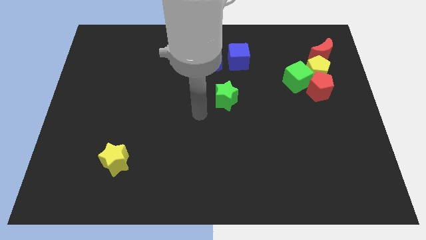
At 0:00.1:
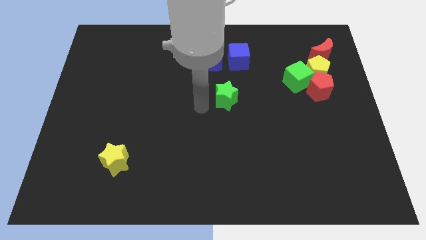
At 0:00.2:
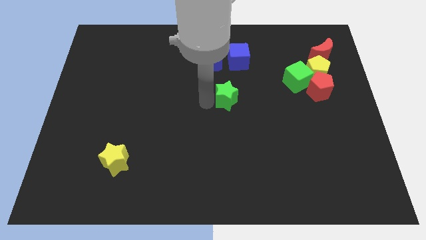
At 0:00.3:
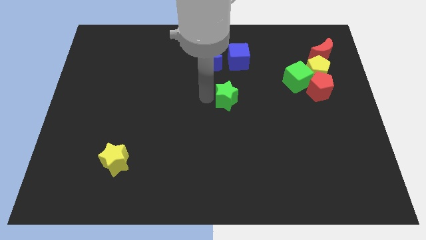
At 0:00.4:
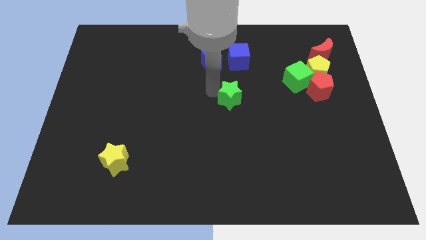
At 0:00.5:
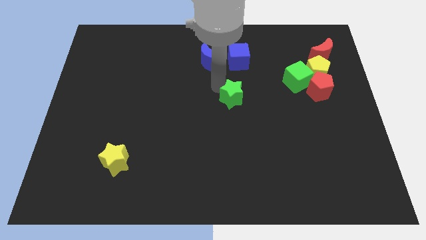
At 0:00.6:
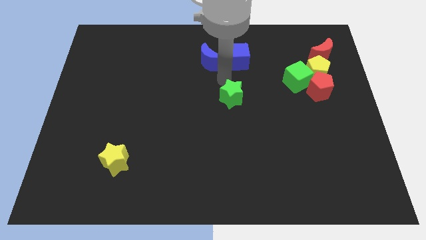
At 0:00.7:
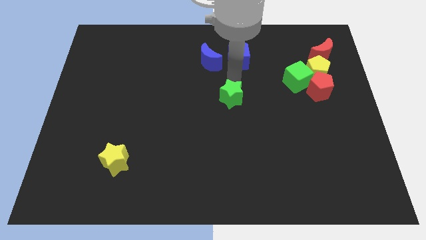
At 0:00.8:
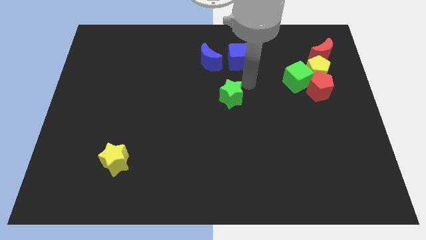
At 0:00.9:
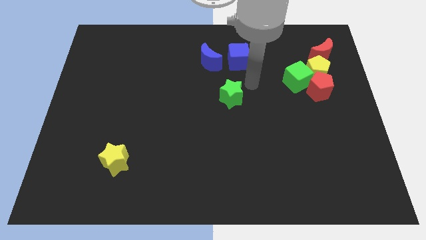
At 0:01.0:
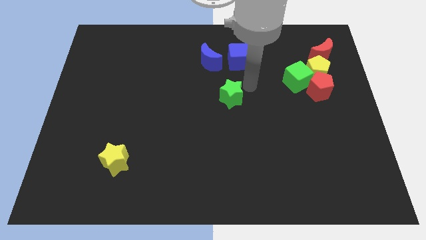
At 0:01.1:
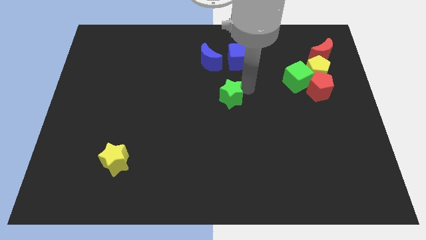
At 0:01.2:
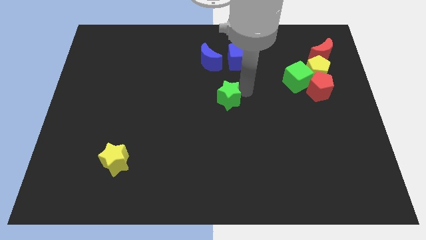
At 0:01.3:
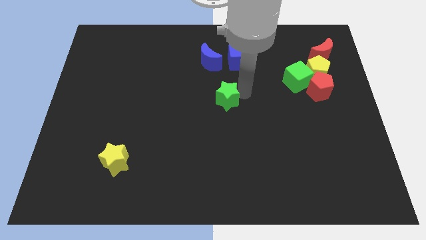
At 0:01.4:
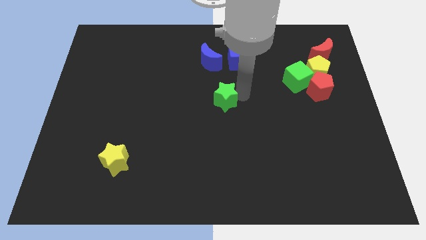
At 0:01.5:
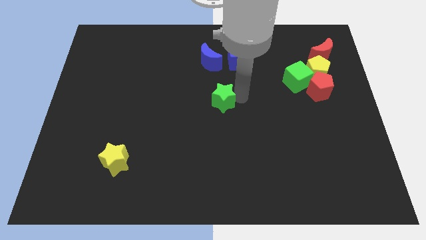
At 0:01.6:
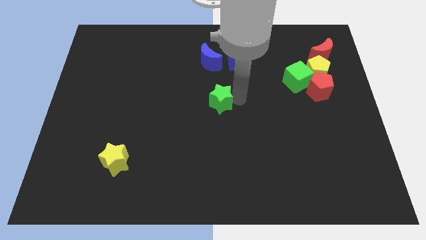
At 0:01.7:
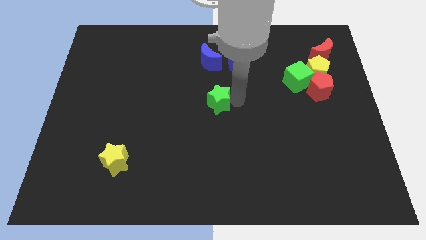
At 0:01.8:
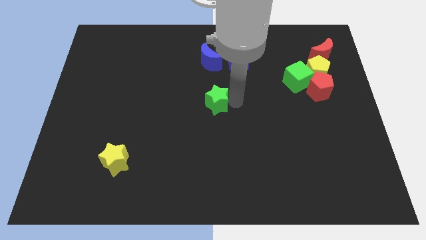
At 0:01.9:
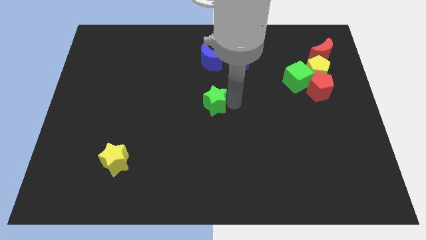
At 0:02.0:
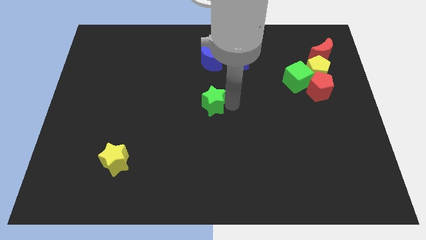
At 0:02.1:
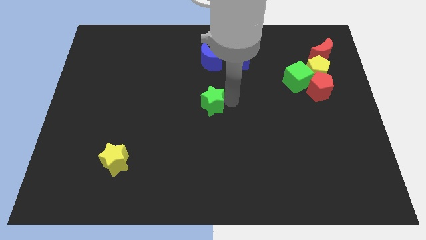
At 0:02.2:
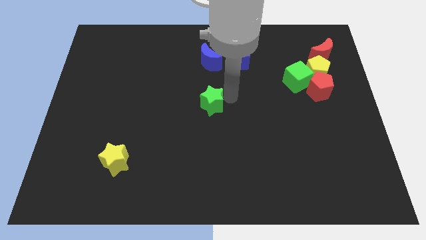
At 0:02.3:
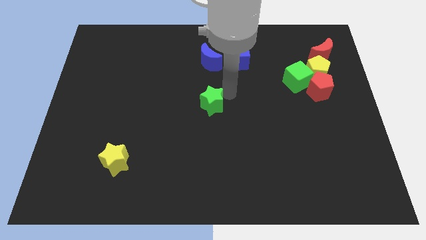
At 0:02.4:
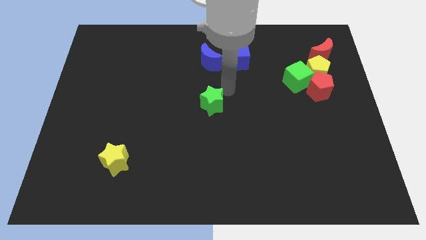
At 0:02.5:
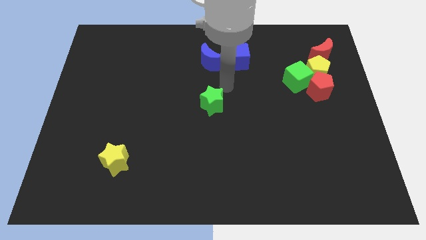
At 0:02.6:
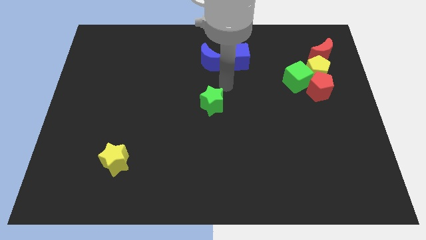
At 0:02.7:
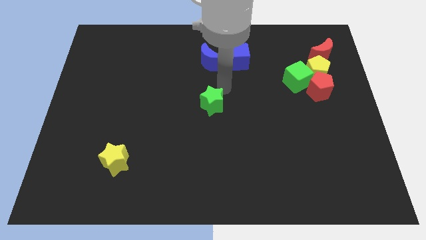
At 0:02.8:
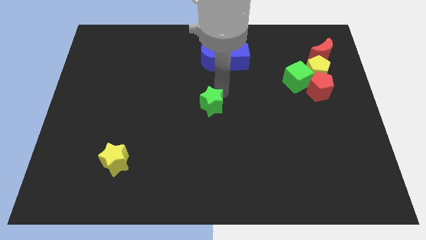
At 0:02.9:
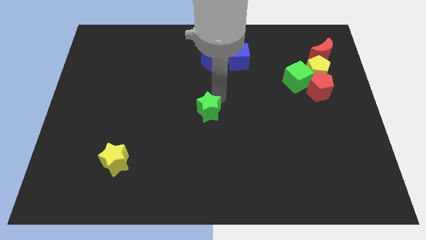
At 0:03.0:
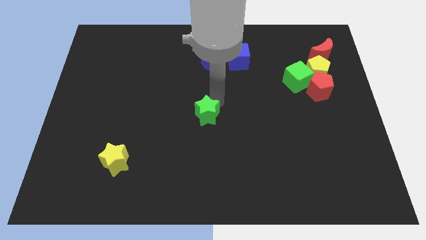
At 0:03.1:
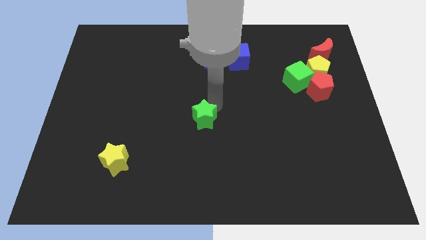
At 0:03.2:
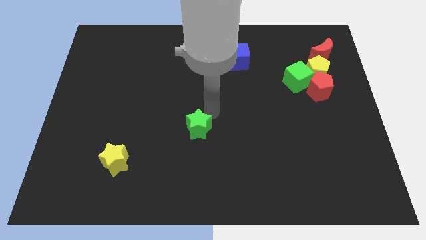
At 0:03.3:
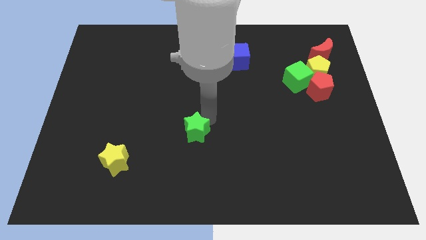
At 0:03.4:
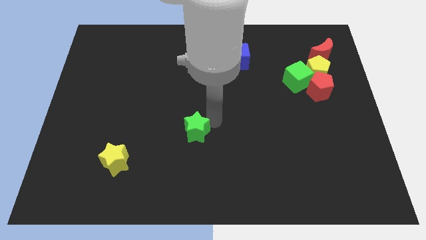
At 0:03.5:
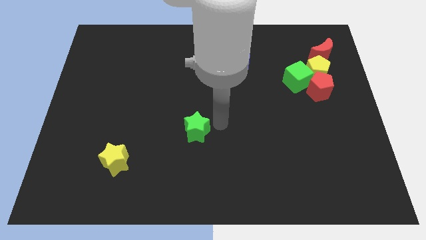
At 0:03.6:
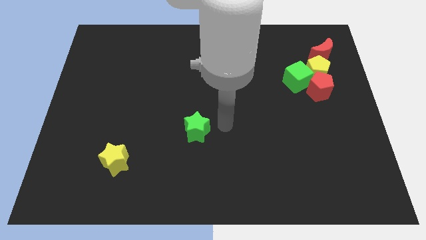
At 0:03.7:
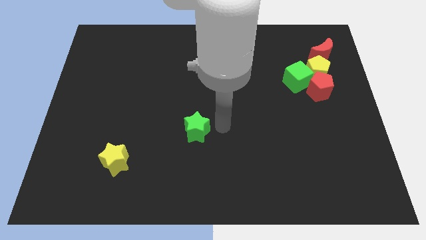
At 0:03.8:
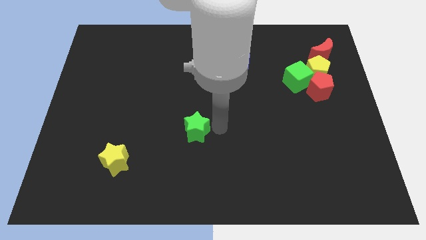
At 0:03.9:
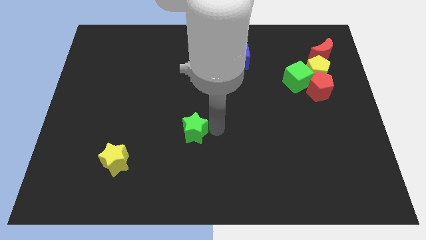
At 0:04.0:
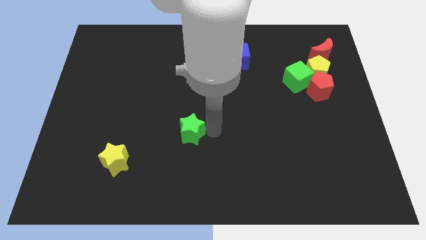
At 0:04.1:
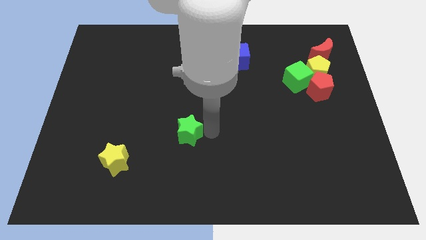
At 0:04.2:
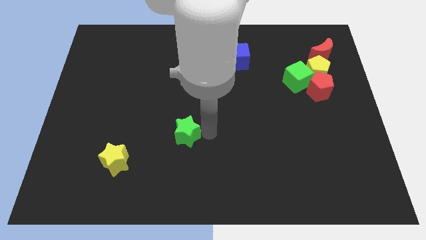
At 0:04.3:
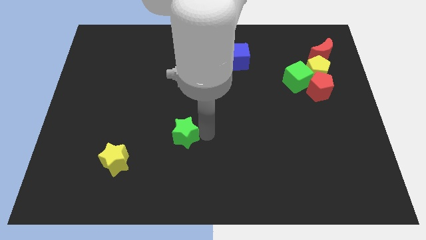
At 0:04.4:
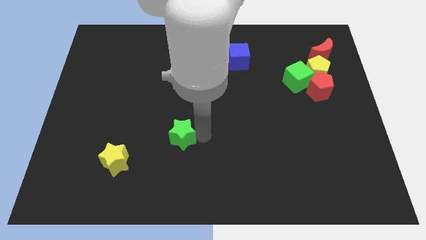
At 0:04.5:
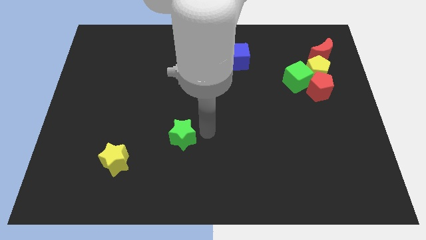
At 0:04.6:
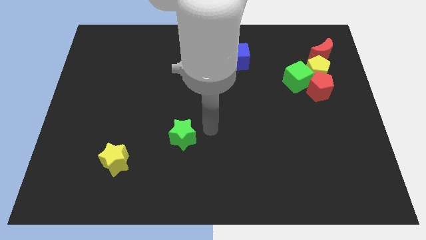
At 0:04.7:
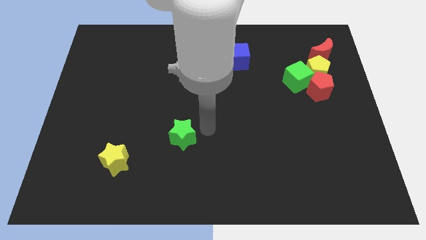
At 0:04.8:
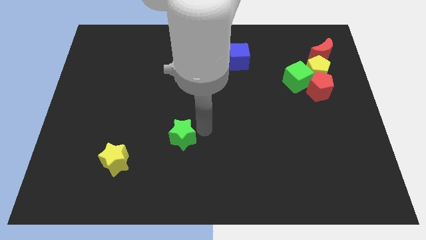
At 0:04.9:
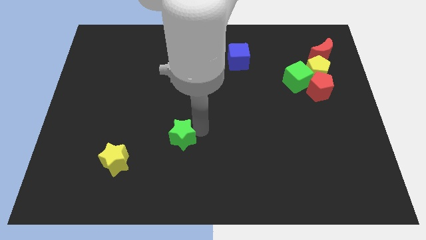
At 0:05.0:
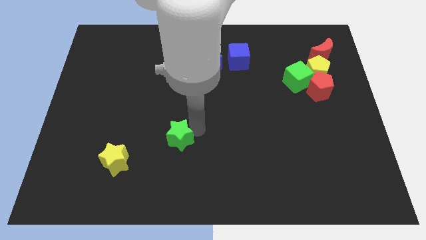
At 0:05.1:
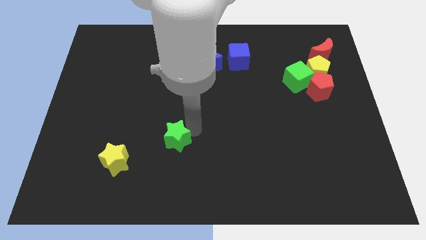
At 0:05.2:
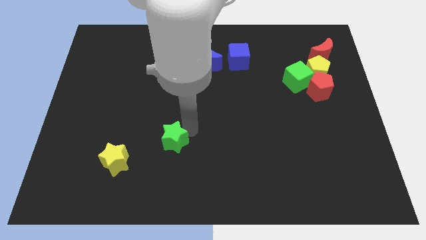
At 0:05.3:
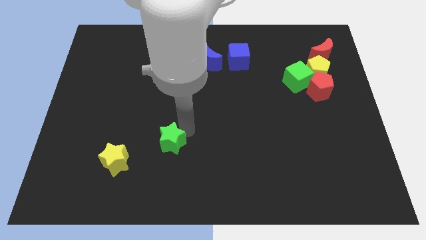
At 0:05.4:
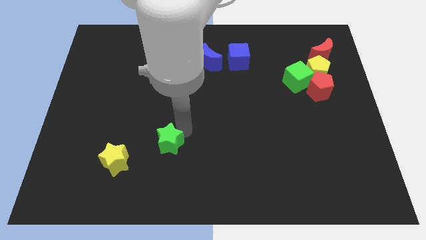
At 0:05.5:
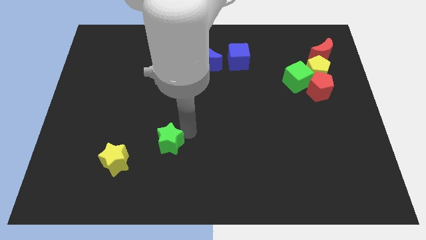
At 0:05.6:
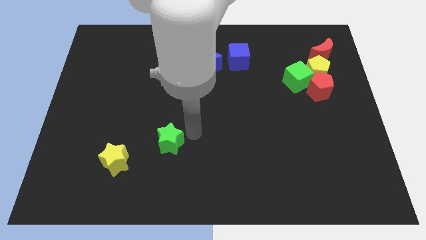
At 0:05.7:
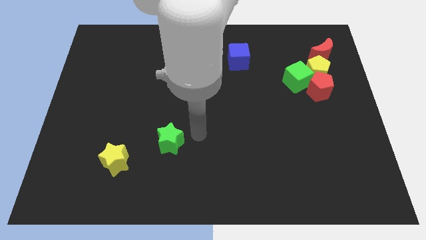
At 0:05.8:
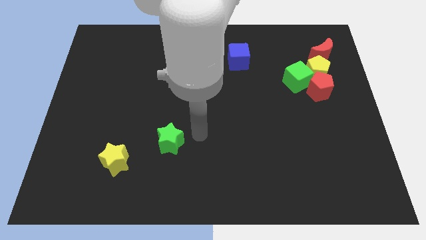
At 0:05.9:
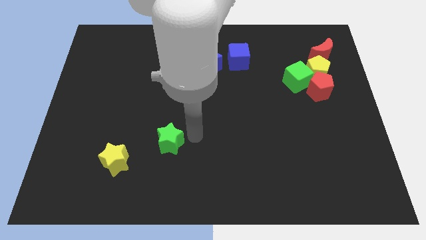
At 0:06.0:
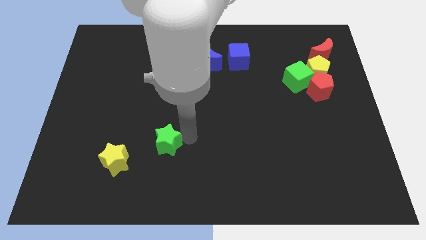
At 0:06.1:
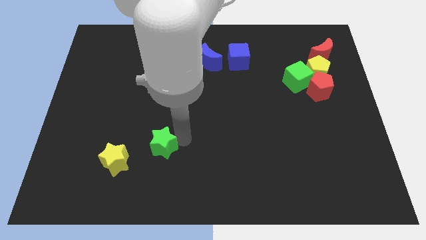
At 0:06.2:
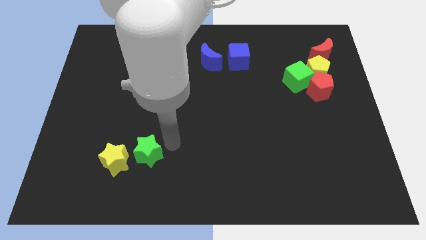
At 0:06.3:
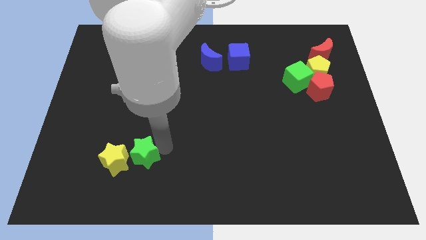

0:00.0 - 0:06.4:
slide the green star close to the yellow star
